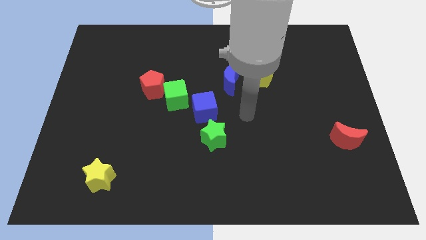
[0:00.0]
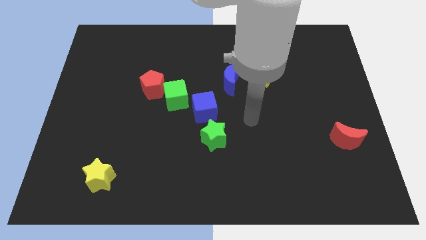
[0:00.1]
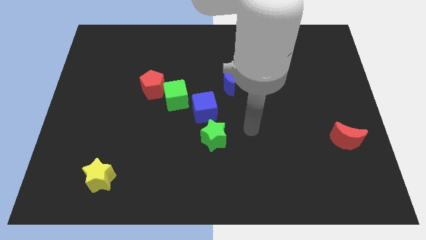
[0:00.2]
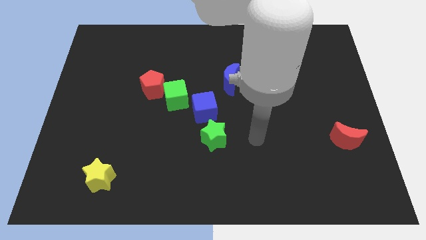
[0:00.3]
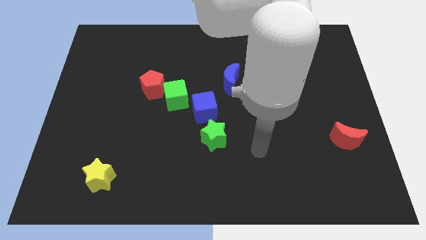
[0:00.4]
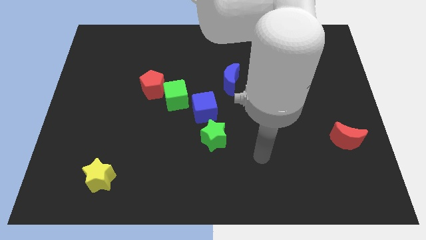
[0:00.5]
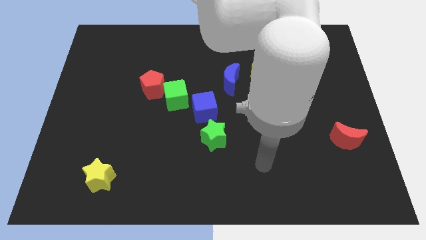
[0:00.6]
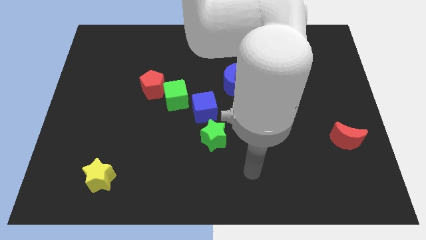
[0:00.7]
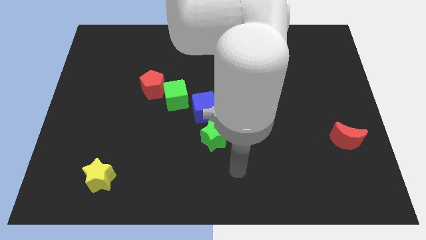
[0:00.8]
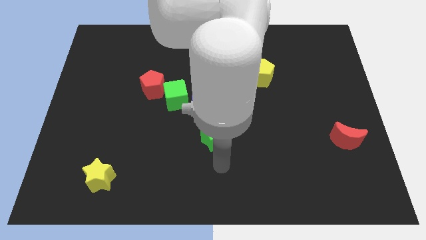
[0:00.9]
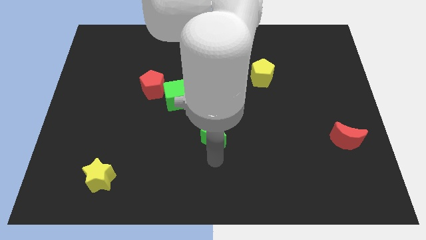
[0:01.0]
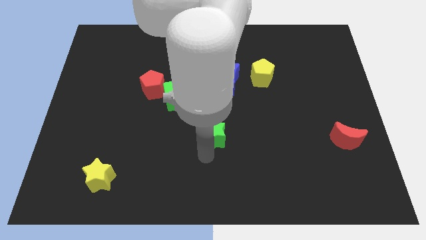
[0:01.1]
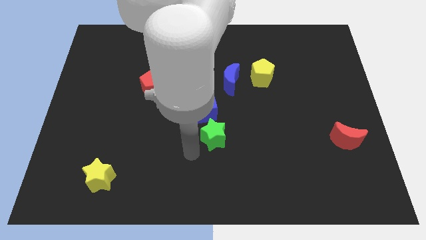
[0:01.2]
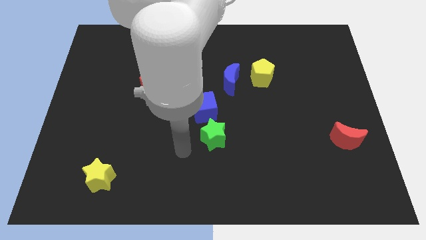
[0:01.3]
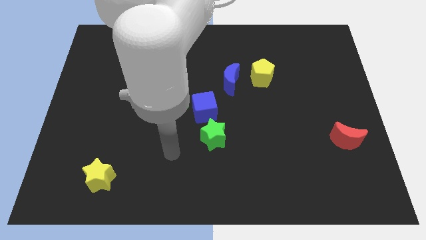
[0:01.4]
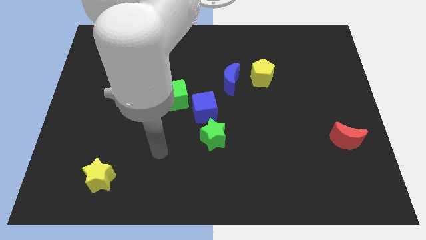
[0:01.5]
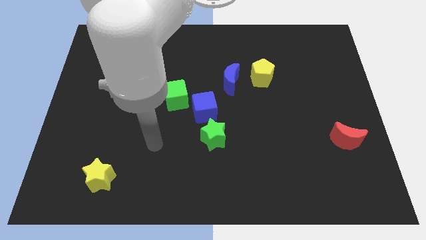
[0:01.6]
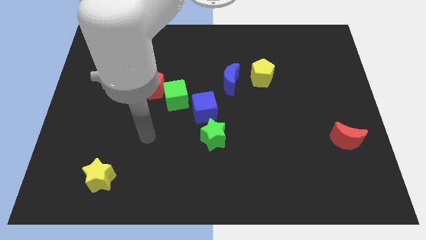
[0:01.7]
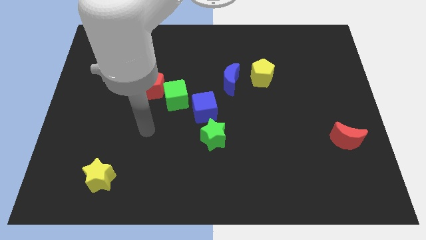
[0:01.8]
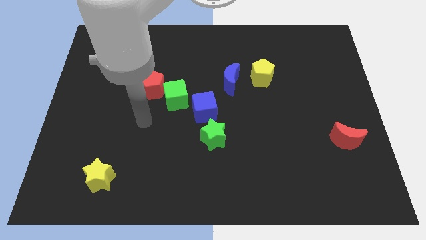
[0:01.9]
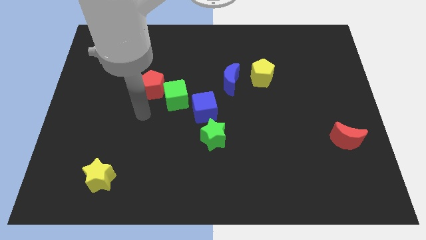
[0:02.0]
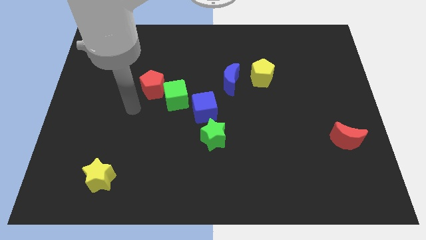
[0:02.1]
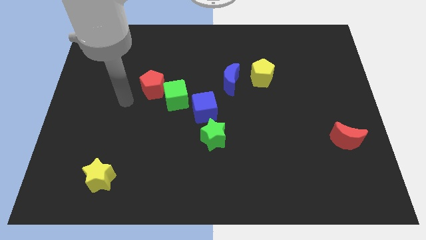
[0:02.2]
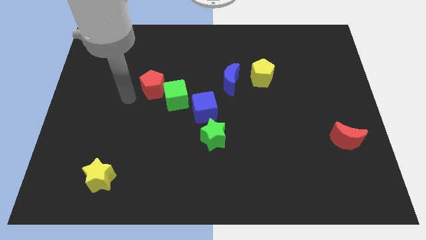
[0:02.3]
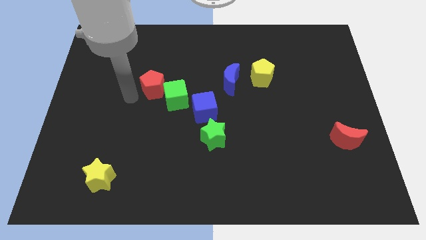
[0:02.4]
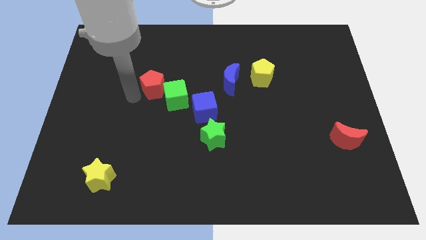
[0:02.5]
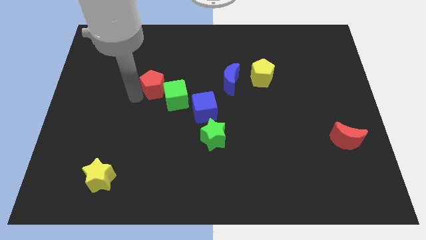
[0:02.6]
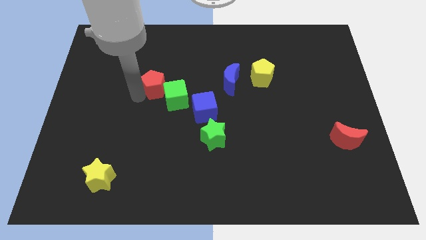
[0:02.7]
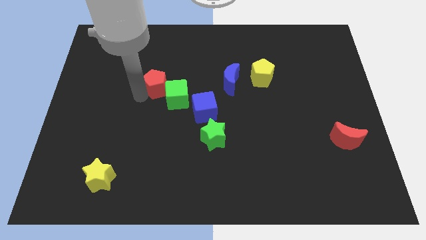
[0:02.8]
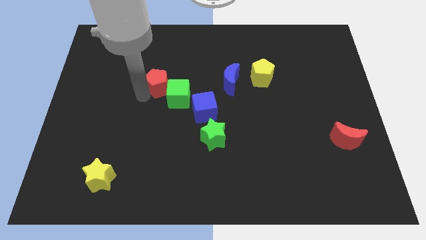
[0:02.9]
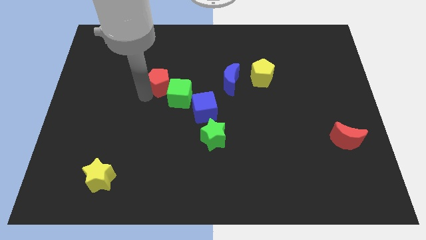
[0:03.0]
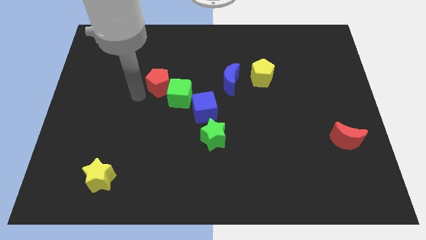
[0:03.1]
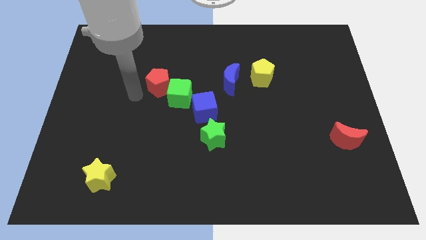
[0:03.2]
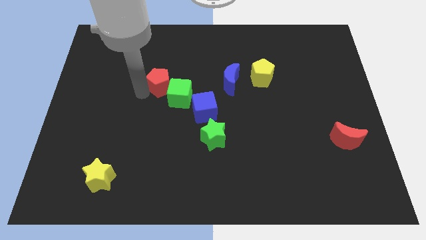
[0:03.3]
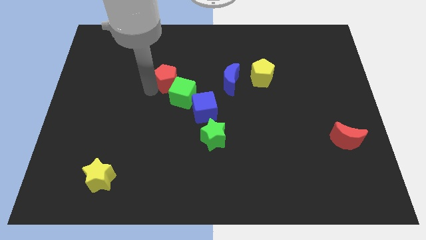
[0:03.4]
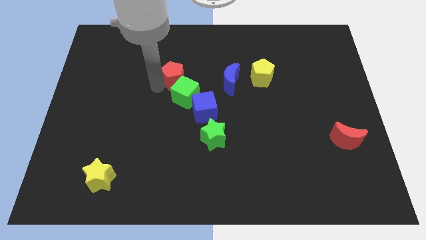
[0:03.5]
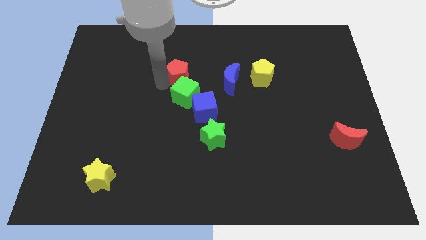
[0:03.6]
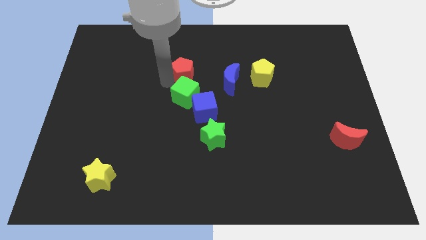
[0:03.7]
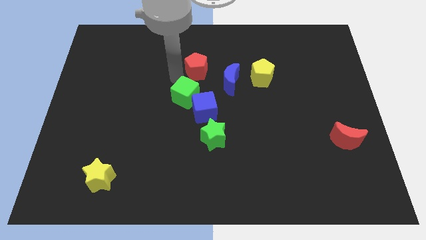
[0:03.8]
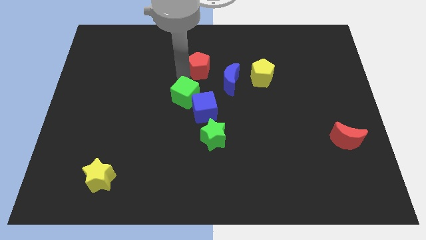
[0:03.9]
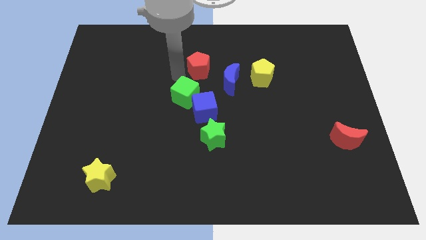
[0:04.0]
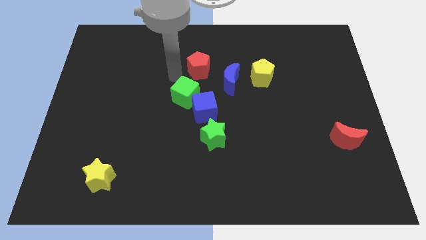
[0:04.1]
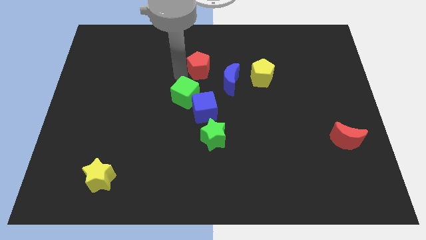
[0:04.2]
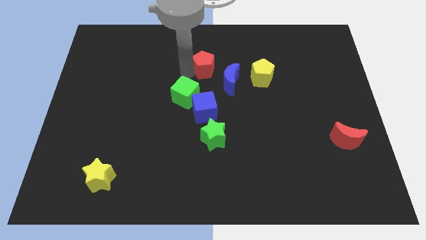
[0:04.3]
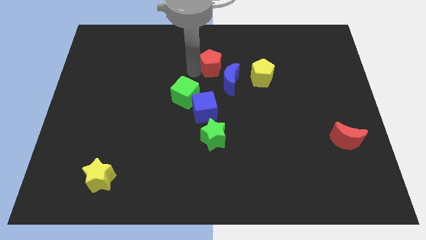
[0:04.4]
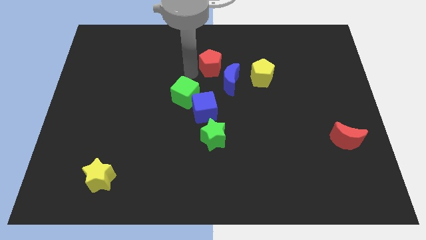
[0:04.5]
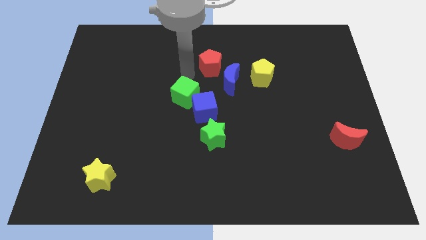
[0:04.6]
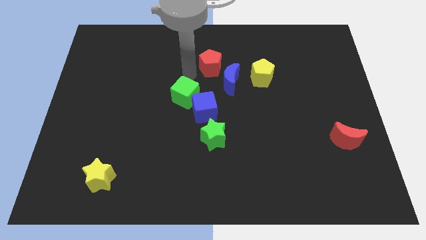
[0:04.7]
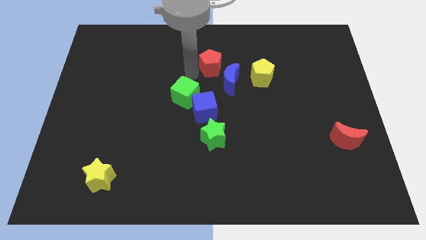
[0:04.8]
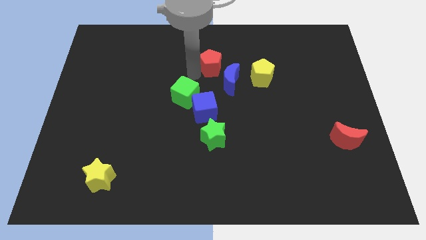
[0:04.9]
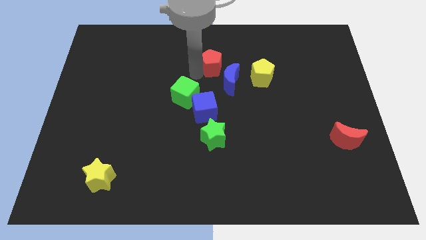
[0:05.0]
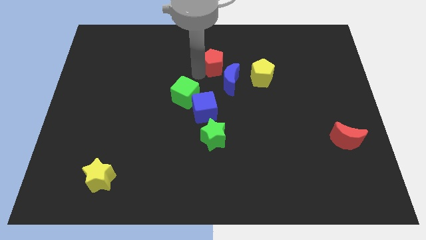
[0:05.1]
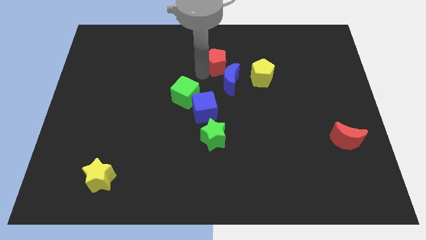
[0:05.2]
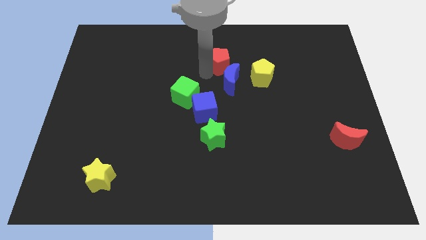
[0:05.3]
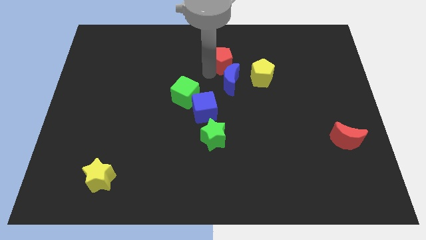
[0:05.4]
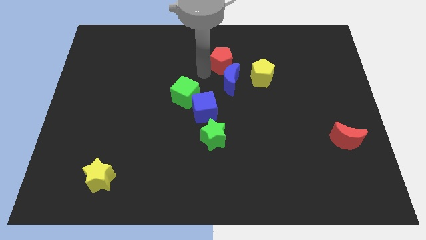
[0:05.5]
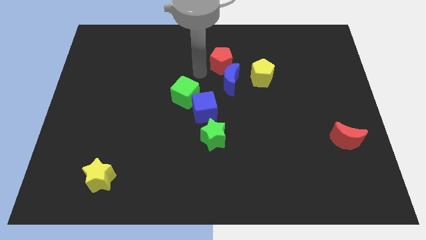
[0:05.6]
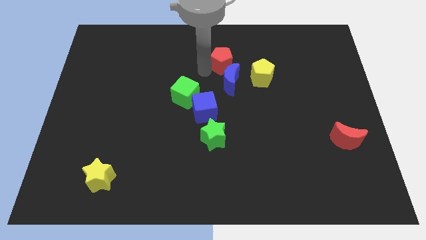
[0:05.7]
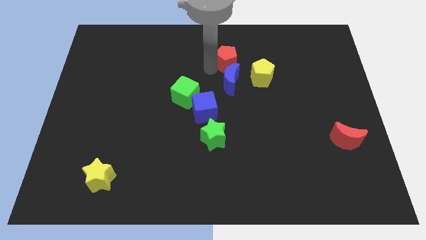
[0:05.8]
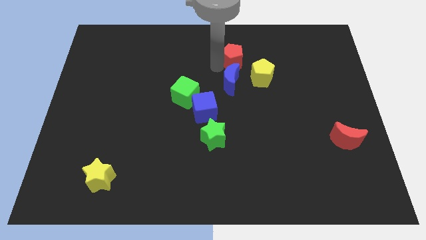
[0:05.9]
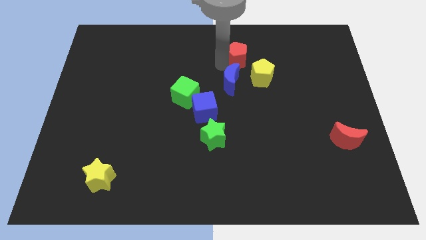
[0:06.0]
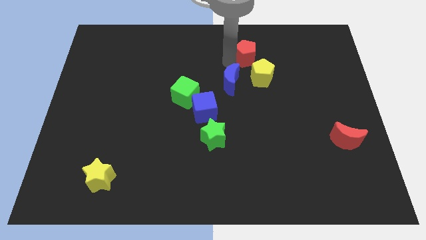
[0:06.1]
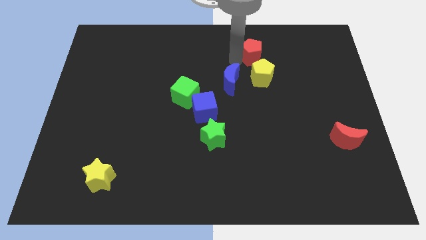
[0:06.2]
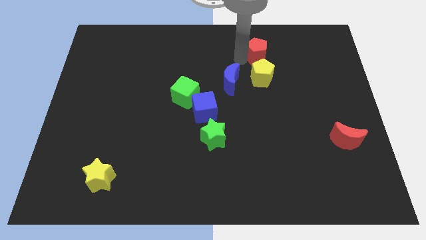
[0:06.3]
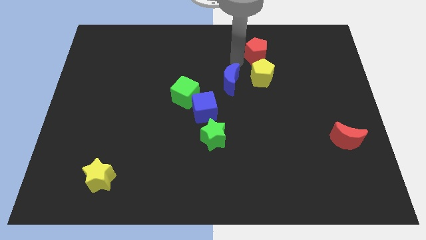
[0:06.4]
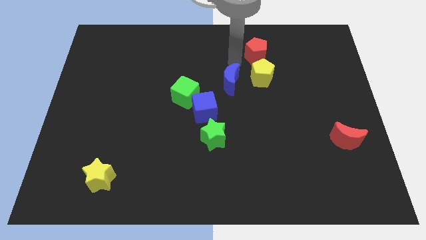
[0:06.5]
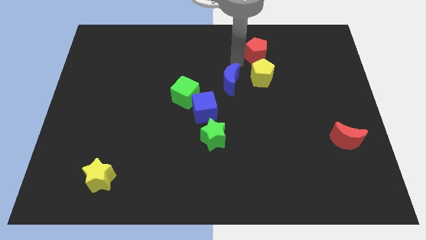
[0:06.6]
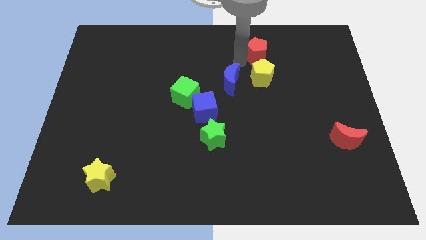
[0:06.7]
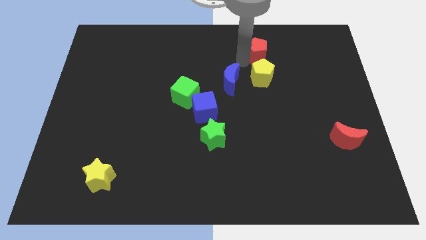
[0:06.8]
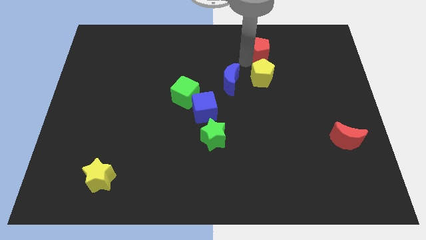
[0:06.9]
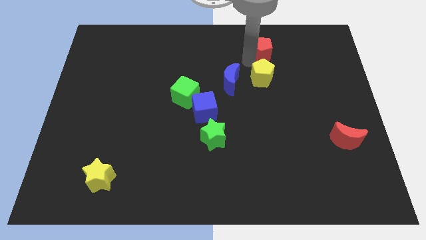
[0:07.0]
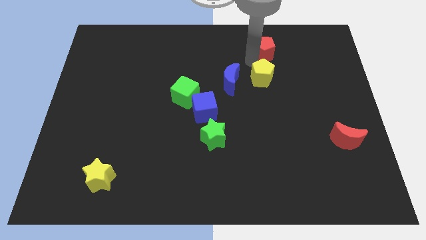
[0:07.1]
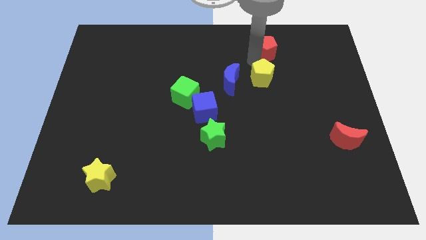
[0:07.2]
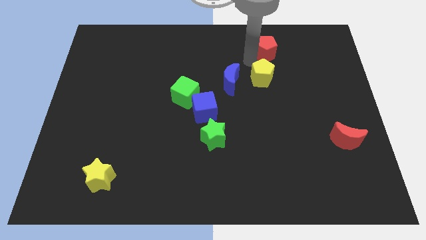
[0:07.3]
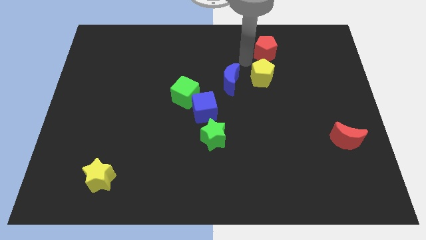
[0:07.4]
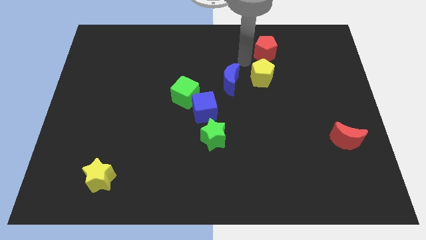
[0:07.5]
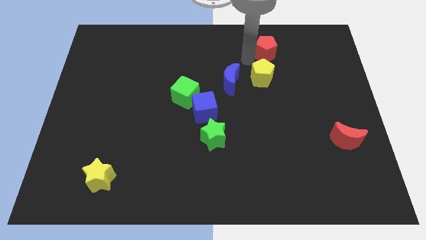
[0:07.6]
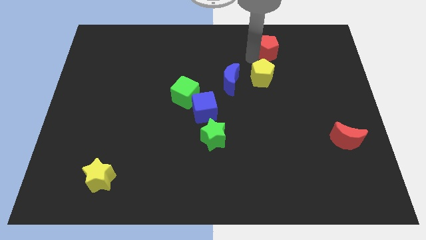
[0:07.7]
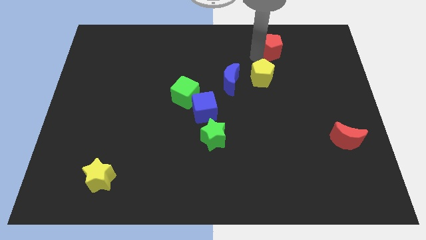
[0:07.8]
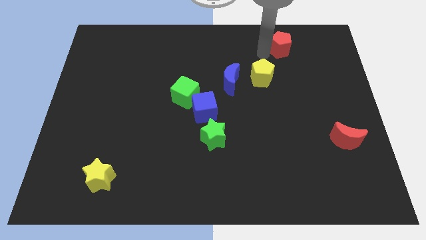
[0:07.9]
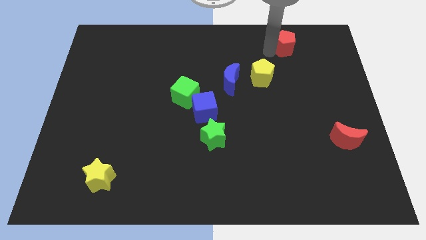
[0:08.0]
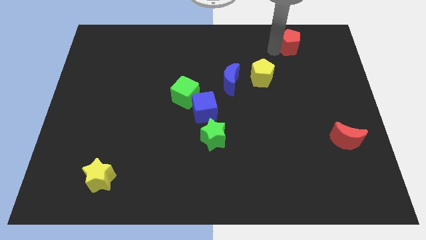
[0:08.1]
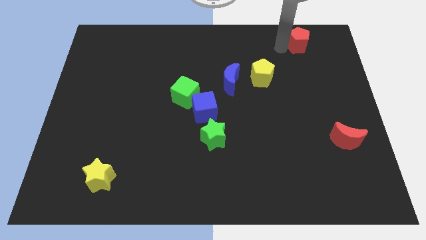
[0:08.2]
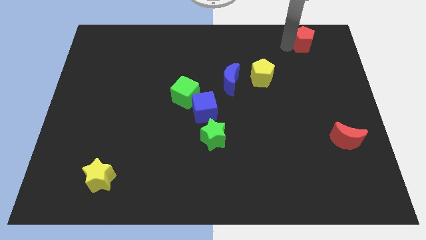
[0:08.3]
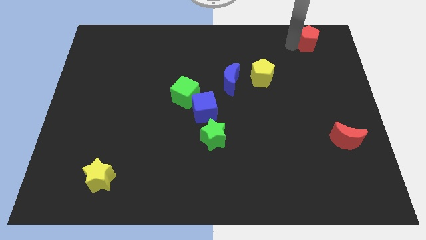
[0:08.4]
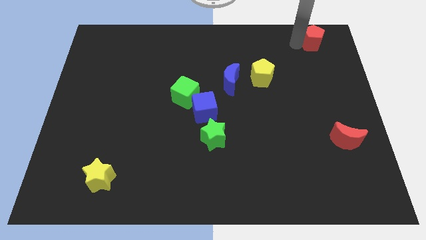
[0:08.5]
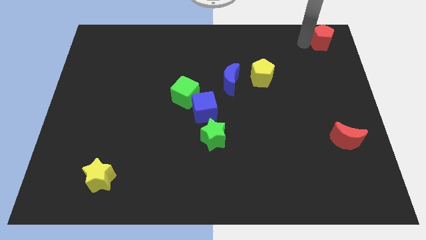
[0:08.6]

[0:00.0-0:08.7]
slide the red pentagon to the top right corner
